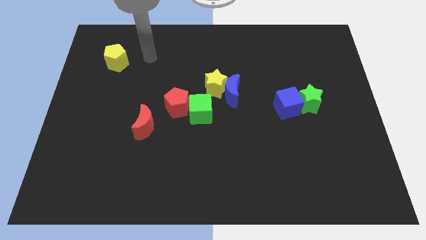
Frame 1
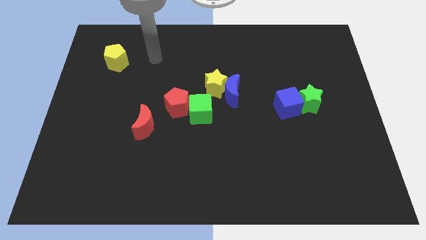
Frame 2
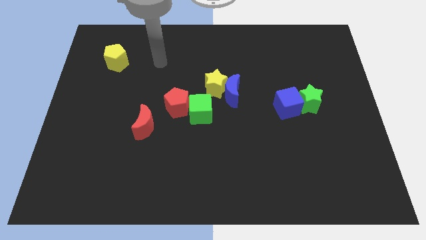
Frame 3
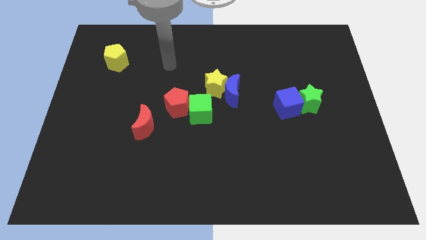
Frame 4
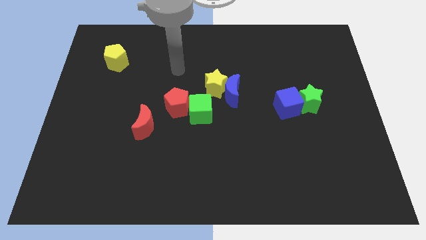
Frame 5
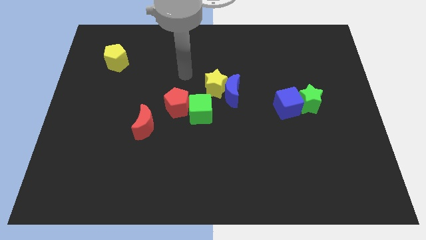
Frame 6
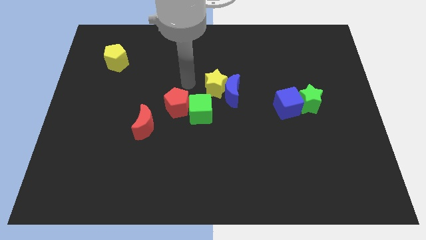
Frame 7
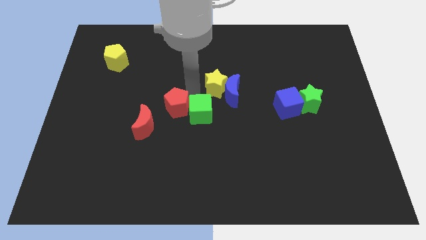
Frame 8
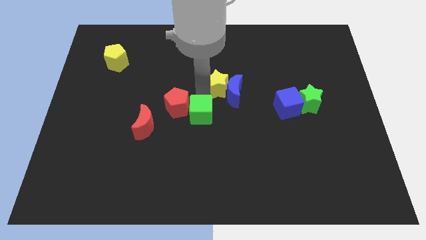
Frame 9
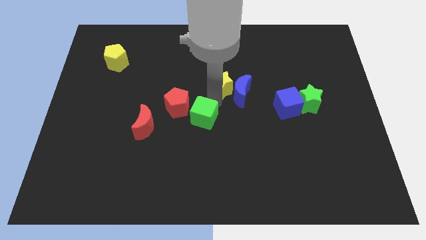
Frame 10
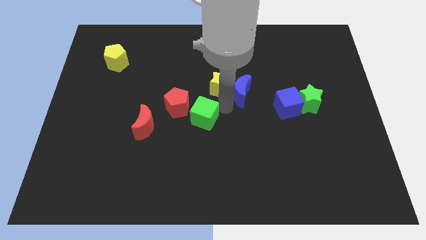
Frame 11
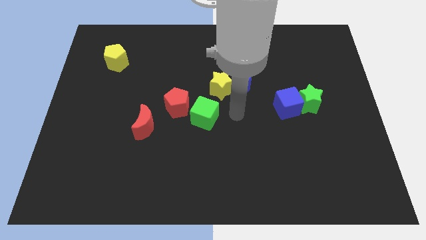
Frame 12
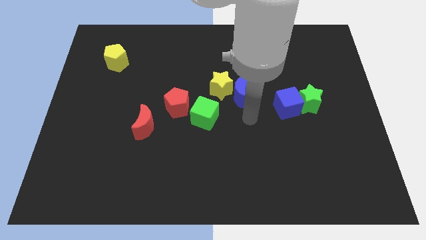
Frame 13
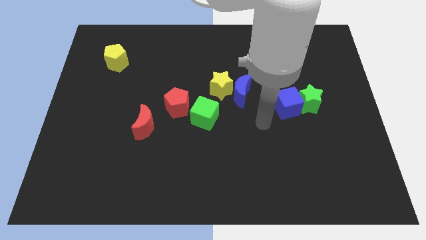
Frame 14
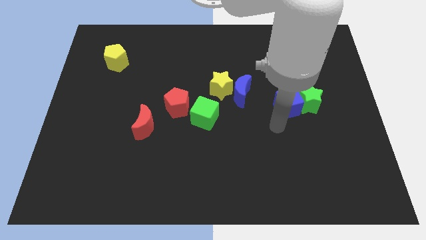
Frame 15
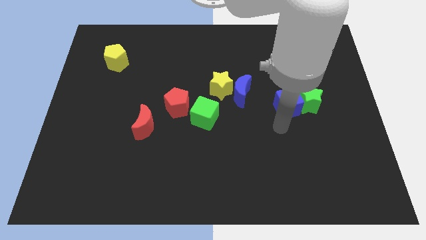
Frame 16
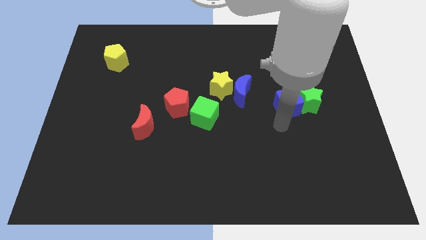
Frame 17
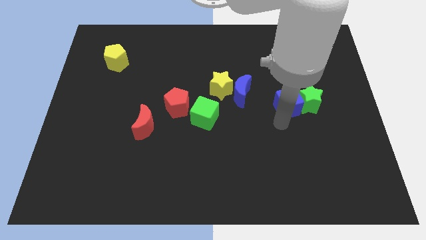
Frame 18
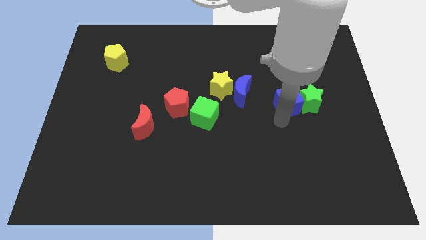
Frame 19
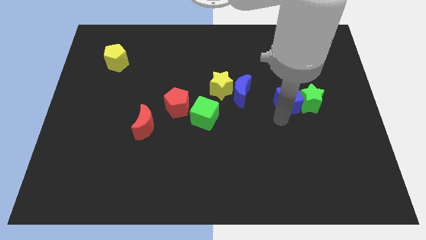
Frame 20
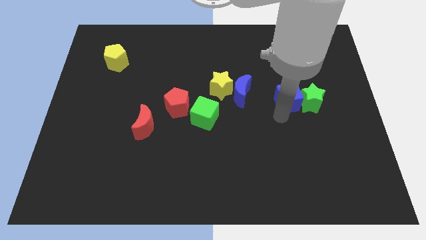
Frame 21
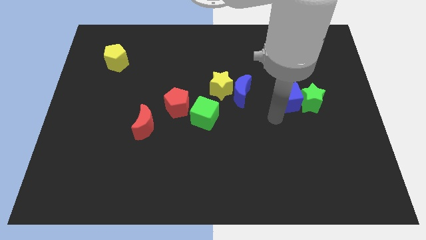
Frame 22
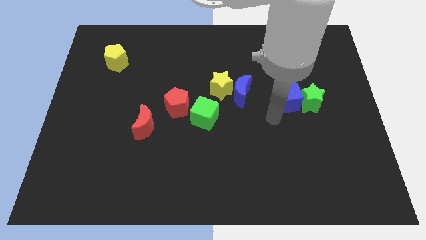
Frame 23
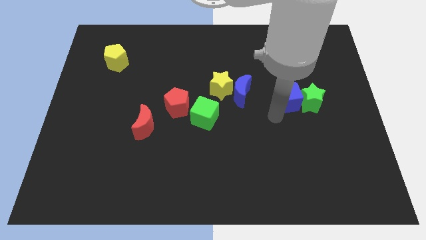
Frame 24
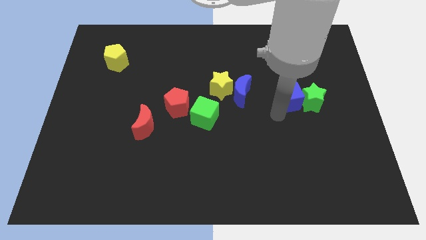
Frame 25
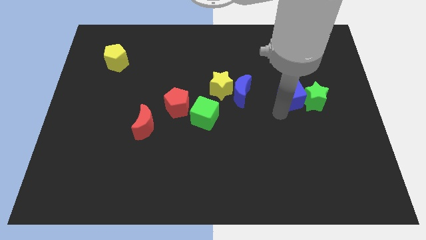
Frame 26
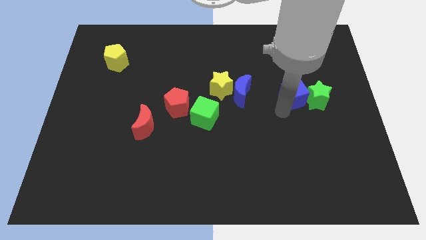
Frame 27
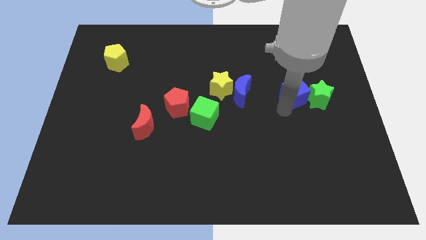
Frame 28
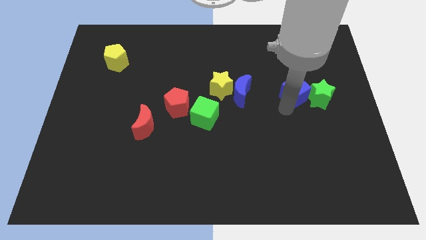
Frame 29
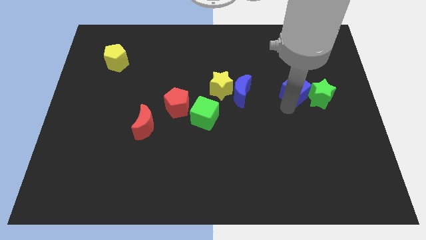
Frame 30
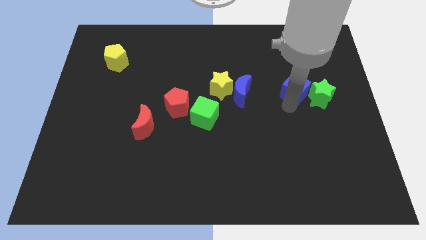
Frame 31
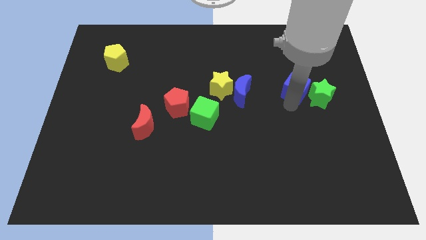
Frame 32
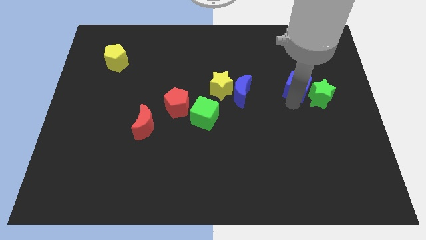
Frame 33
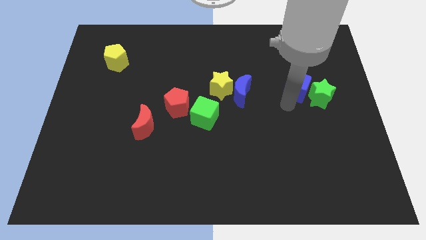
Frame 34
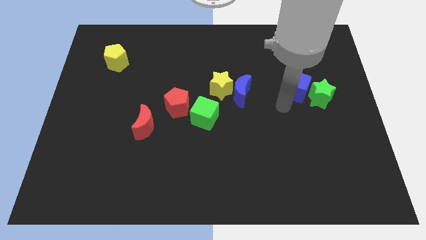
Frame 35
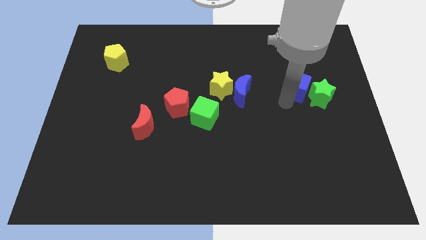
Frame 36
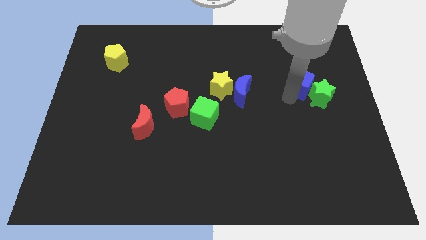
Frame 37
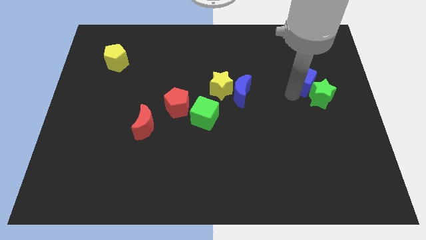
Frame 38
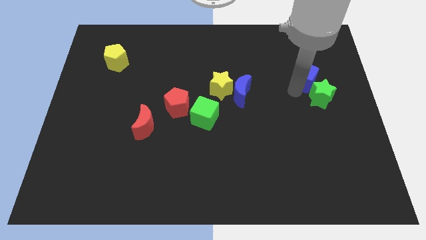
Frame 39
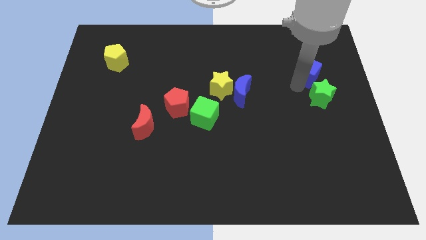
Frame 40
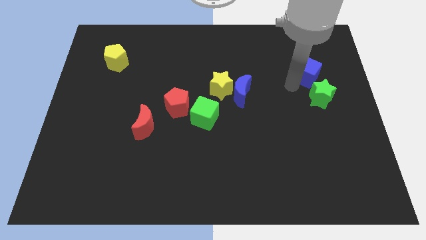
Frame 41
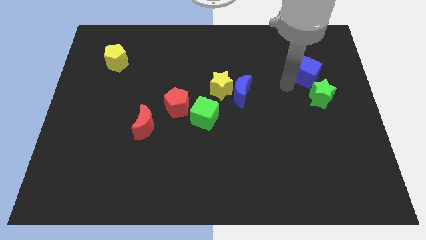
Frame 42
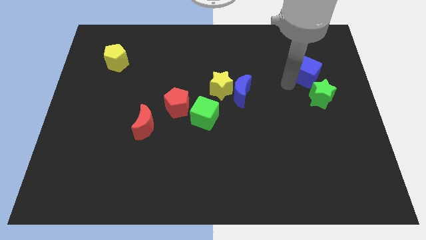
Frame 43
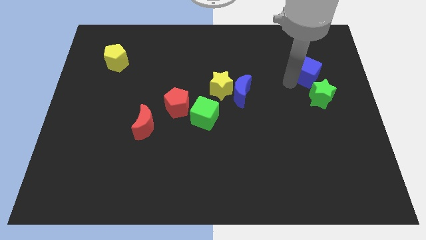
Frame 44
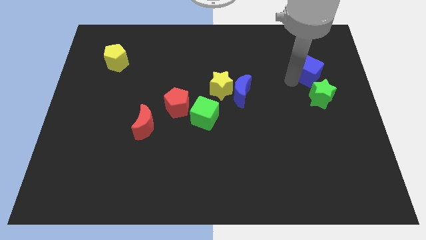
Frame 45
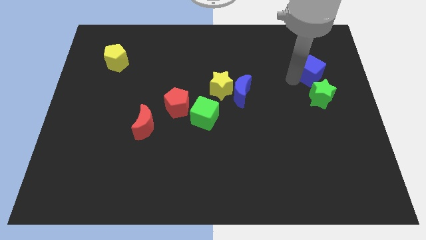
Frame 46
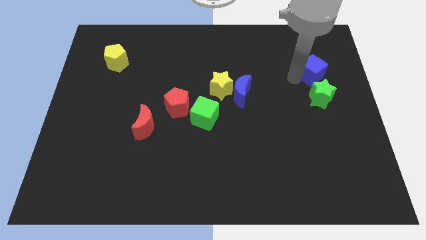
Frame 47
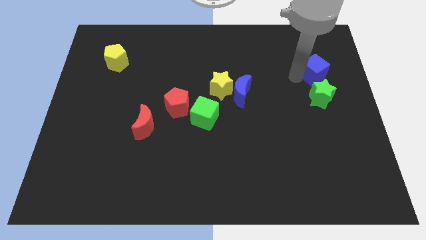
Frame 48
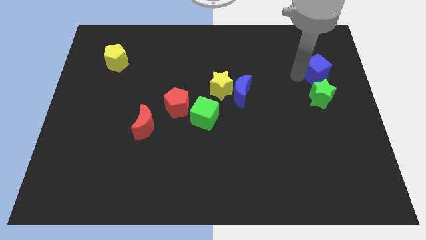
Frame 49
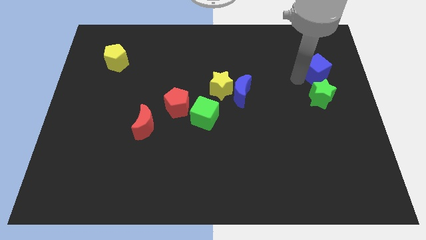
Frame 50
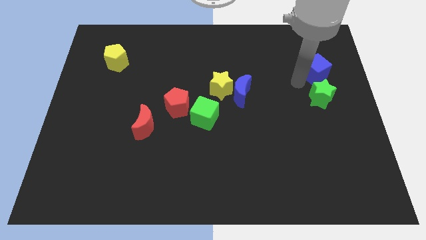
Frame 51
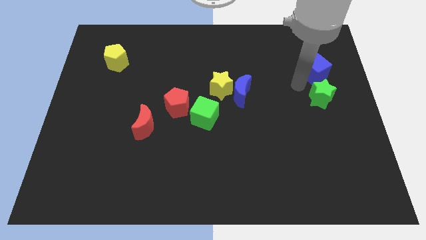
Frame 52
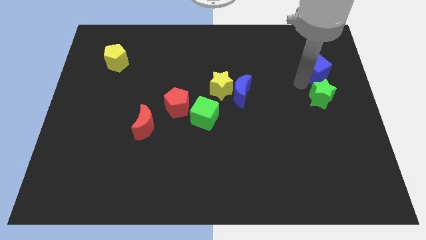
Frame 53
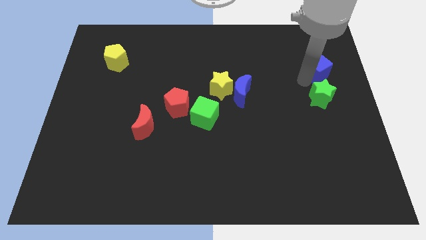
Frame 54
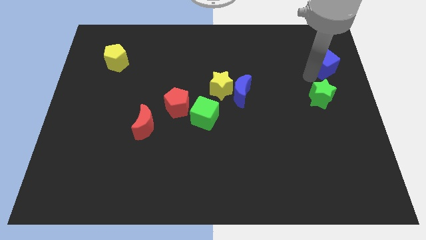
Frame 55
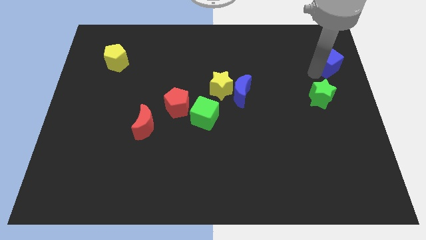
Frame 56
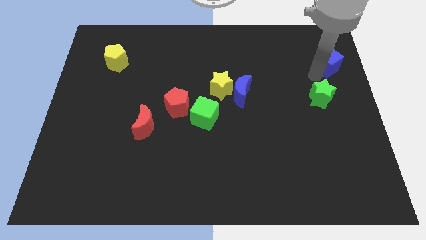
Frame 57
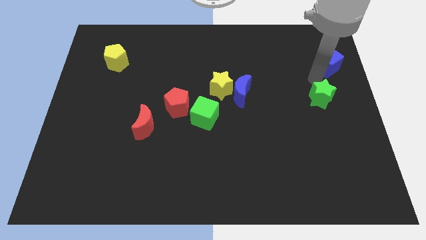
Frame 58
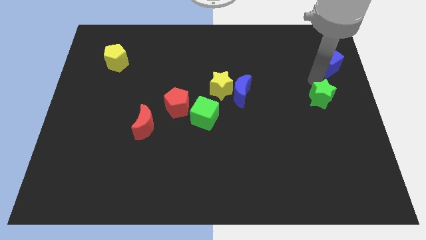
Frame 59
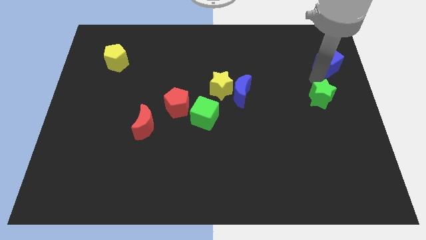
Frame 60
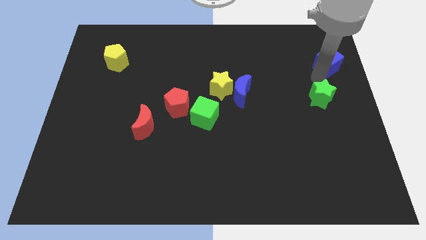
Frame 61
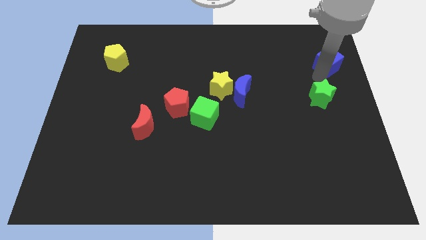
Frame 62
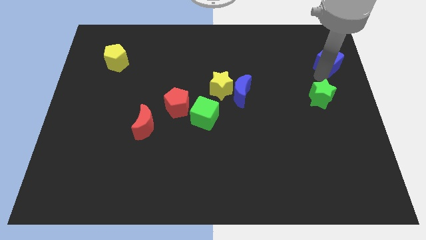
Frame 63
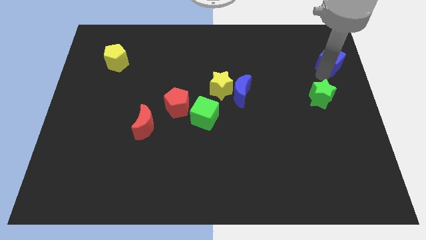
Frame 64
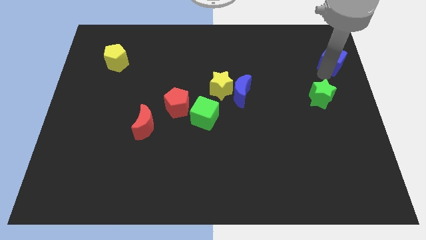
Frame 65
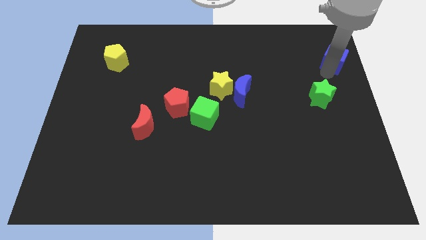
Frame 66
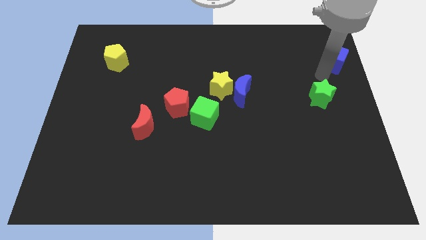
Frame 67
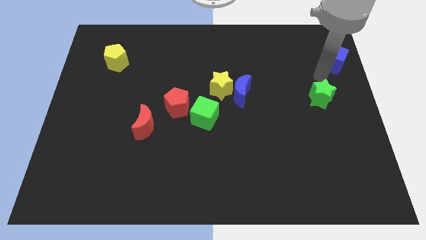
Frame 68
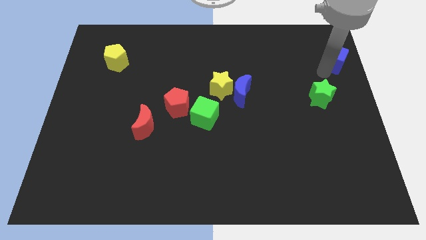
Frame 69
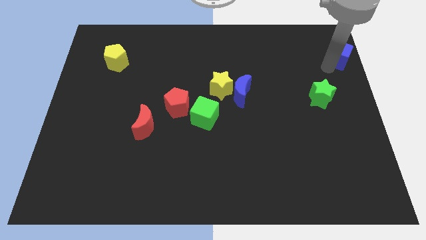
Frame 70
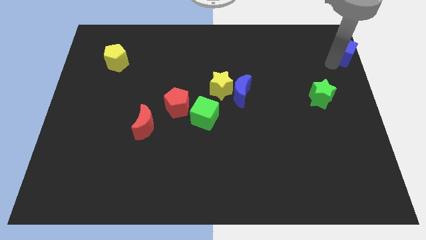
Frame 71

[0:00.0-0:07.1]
slide the blue cube to the top right
